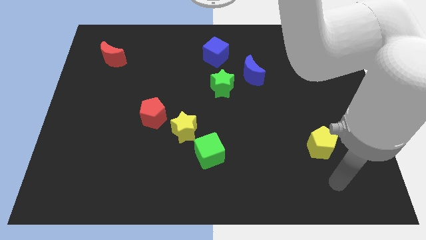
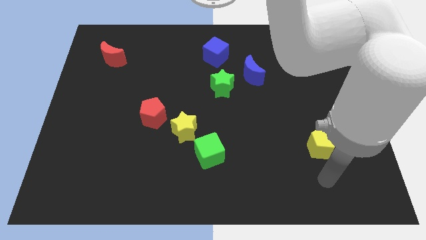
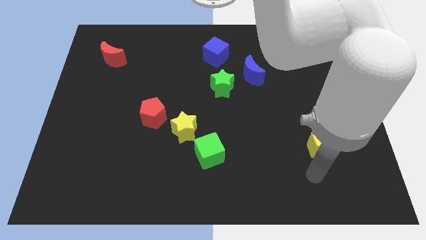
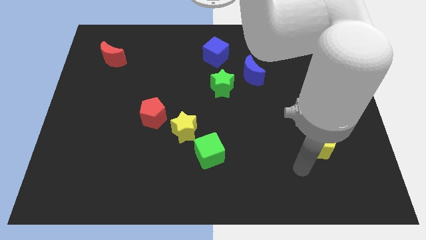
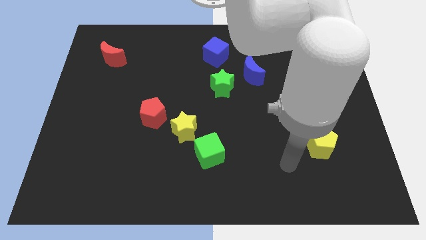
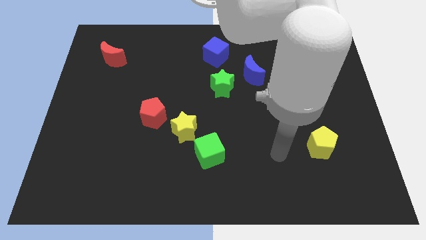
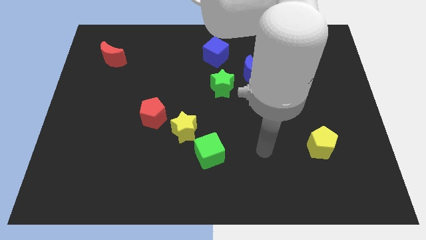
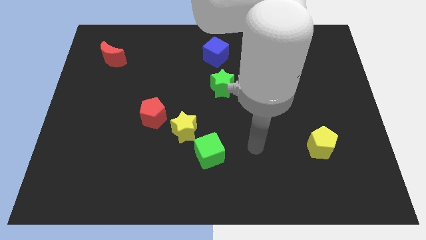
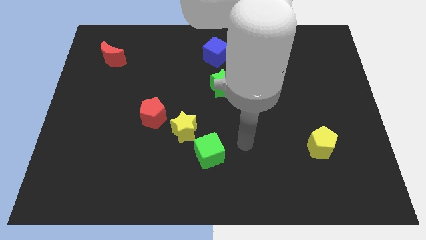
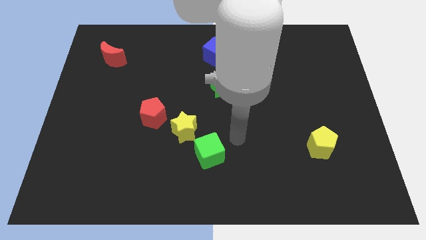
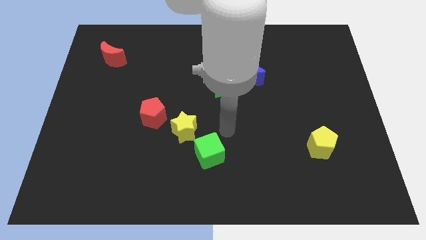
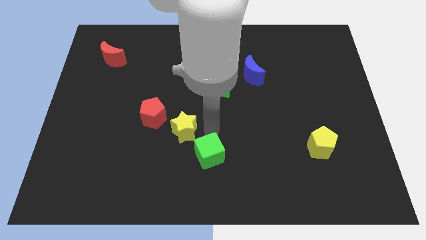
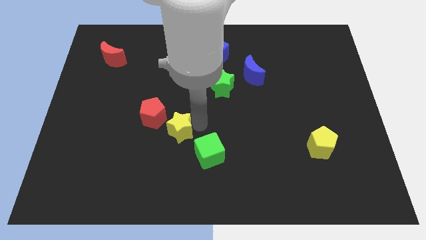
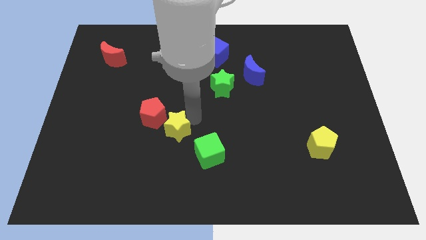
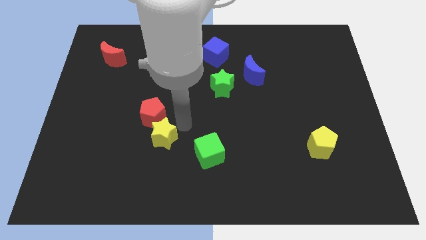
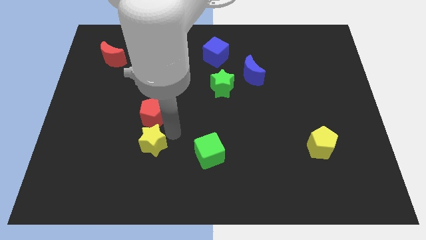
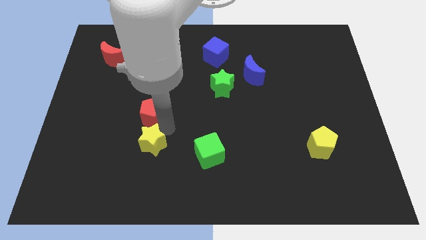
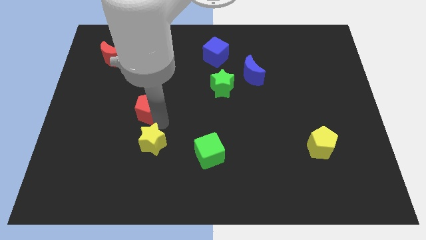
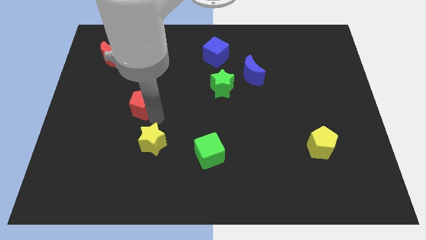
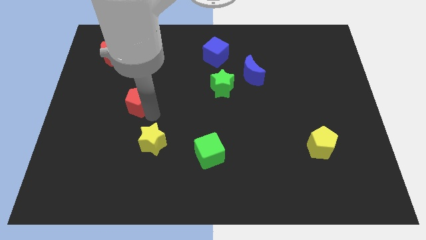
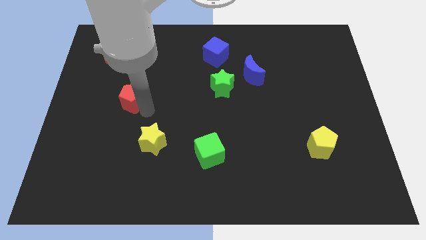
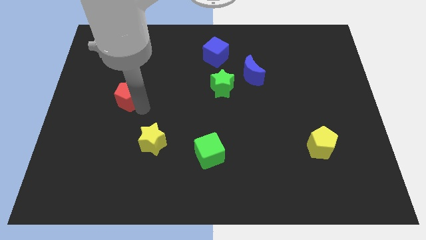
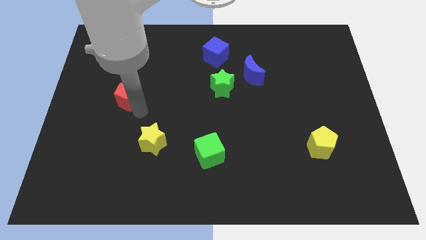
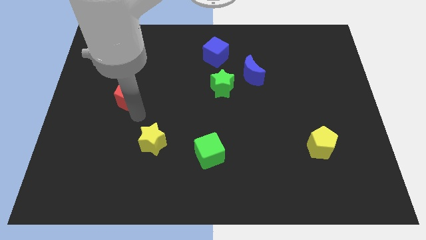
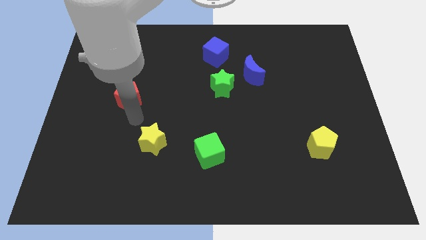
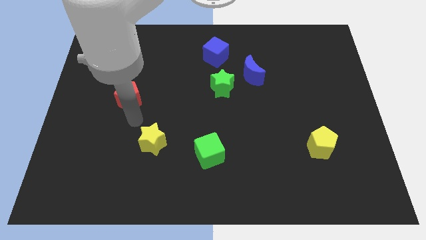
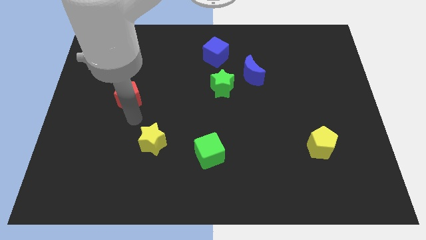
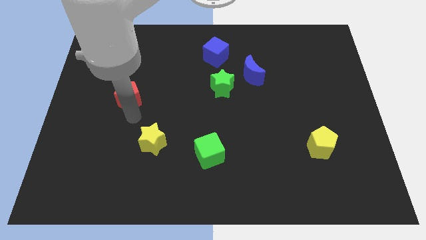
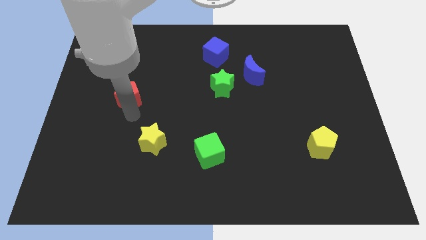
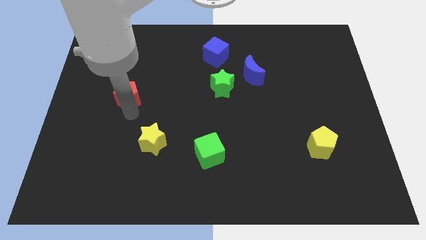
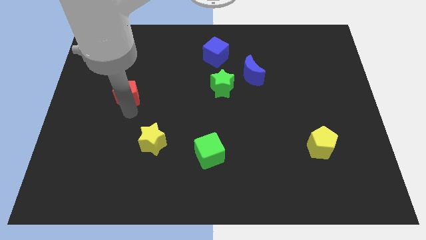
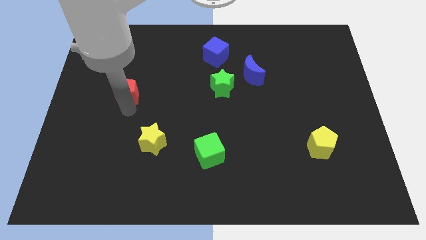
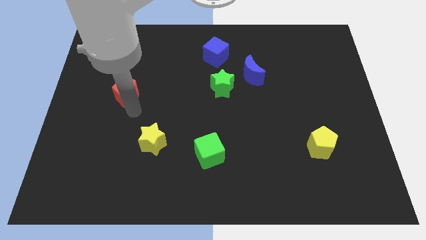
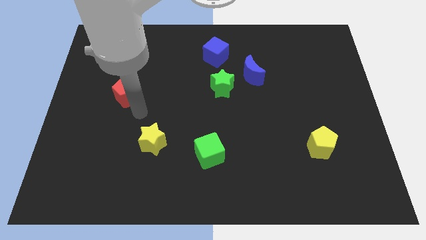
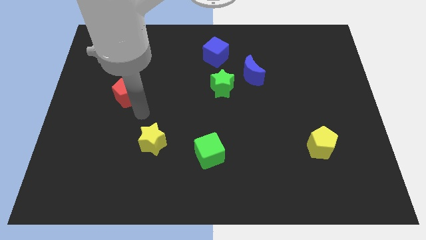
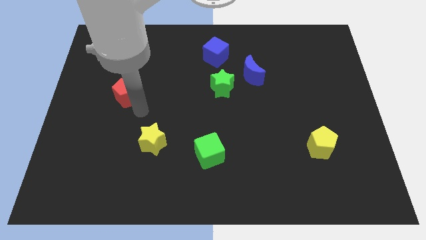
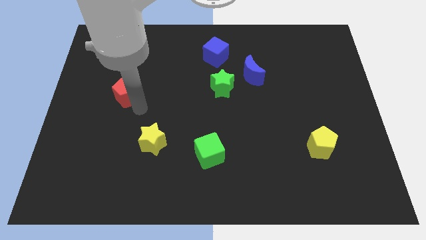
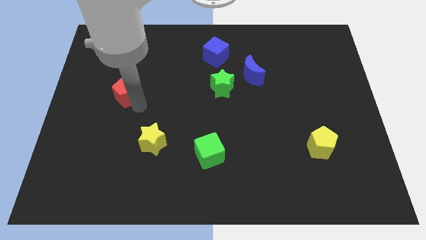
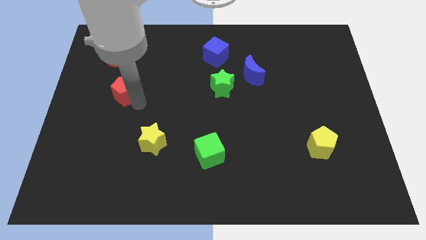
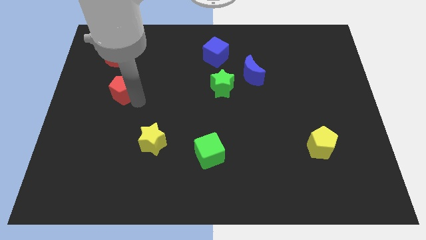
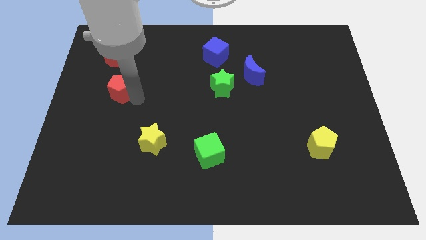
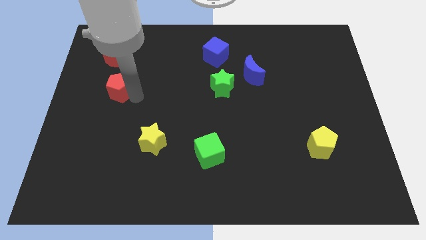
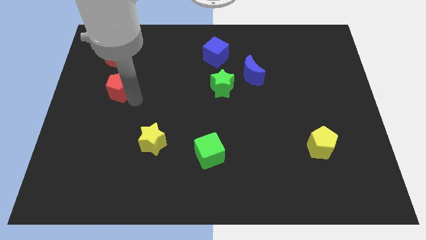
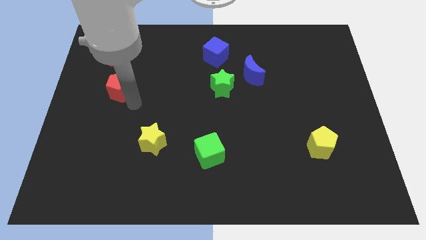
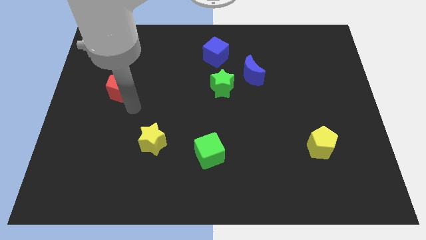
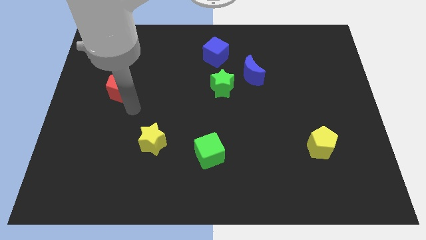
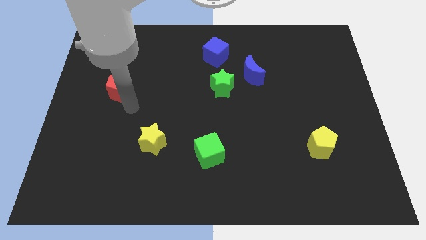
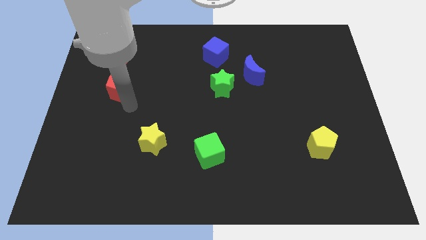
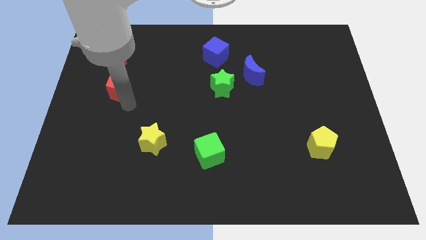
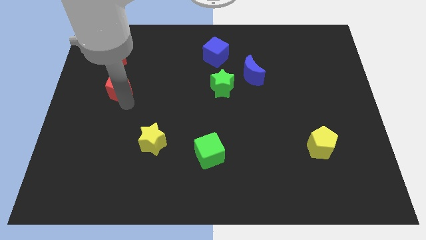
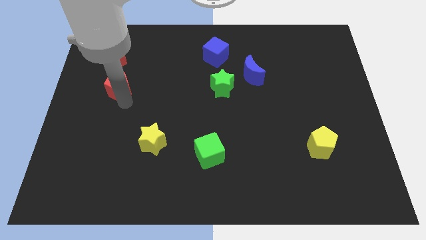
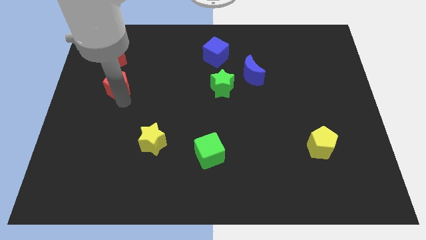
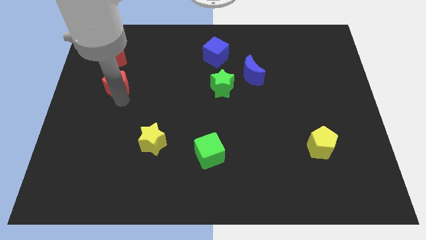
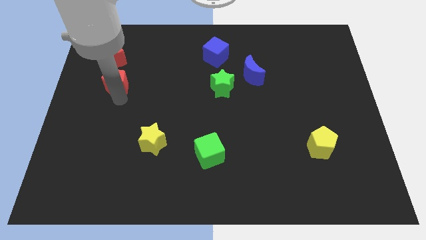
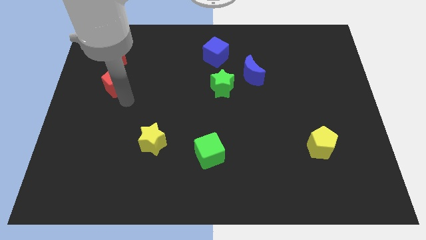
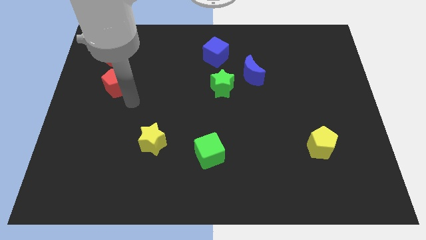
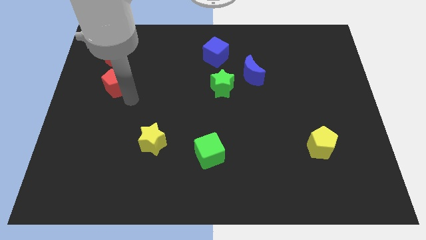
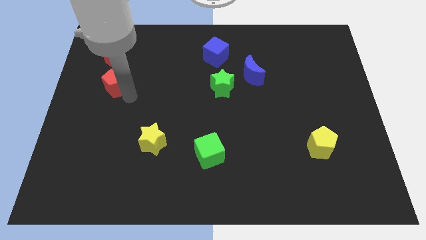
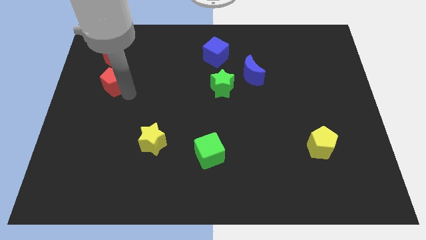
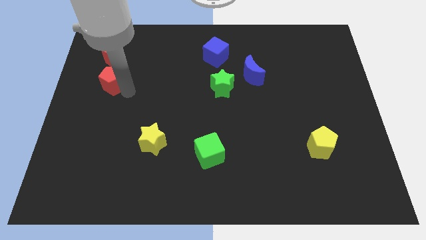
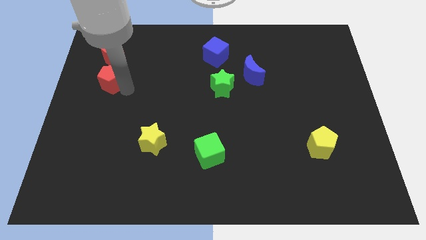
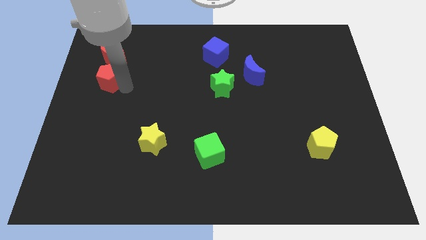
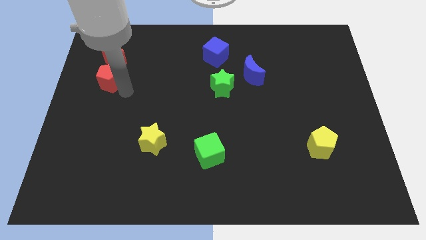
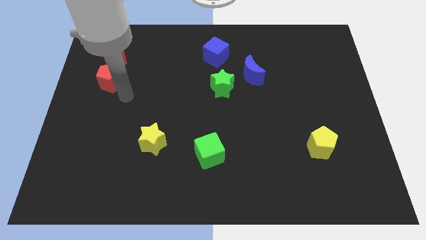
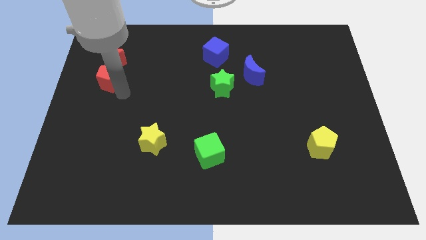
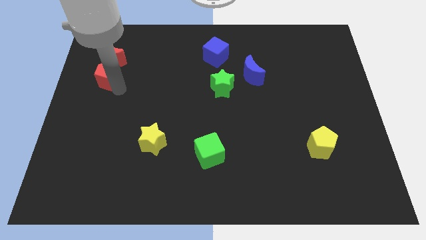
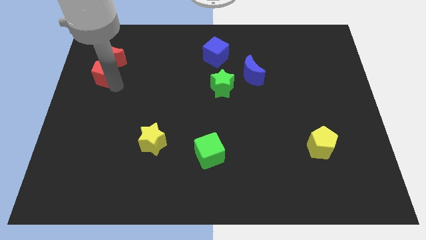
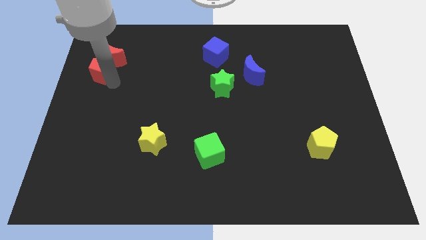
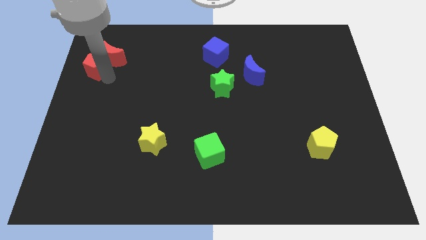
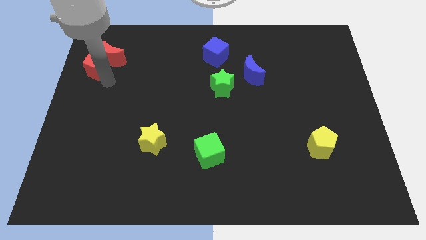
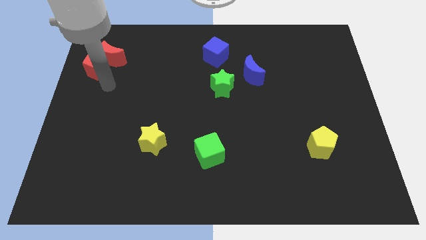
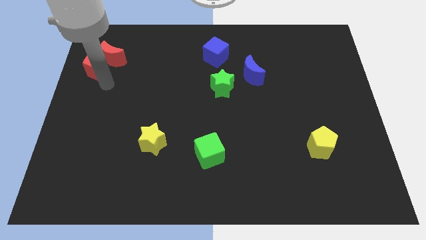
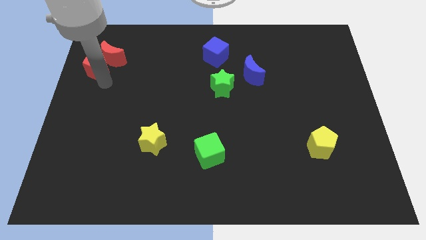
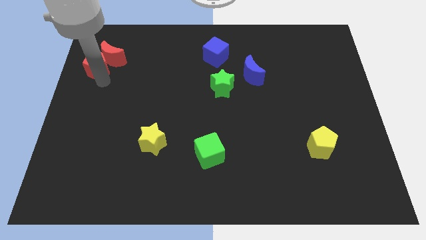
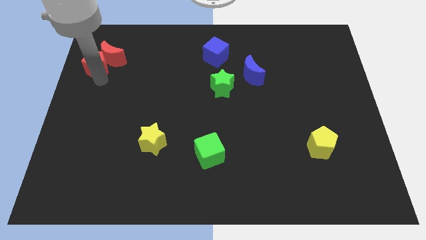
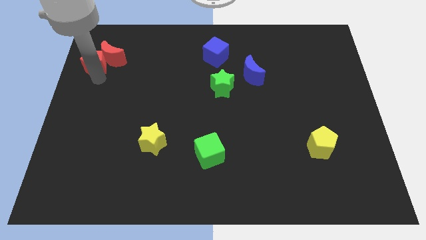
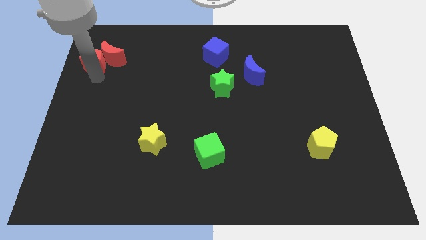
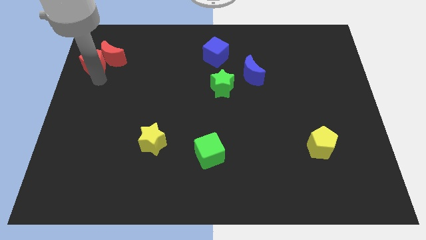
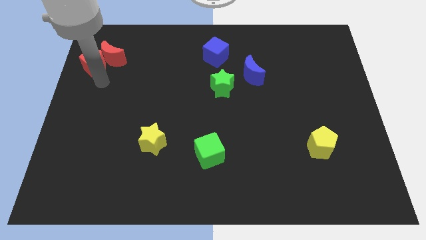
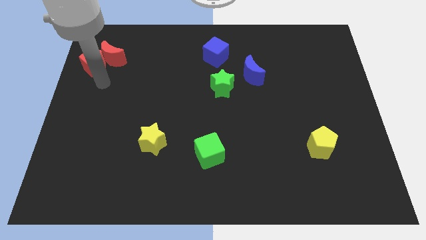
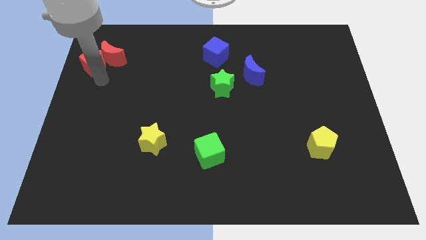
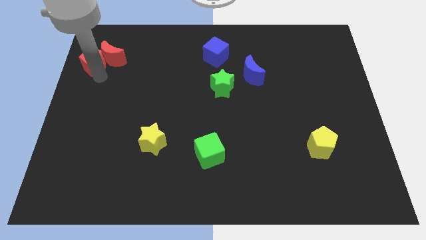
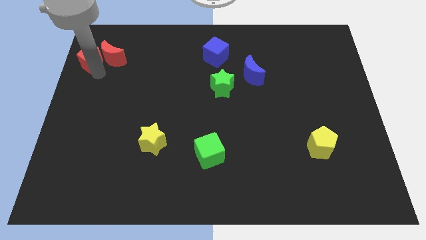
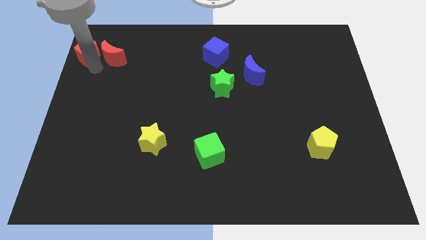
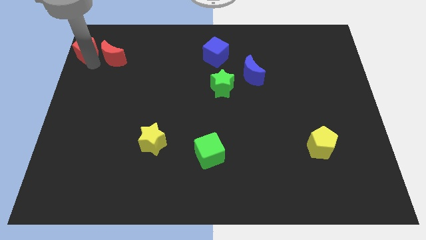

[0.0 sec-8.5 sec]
move the red pentagon to the top left of the board
